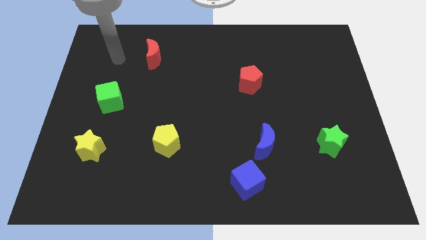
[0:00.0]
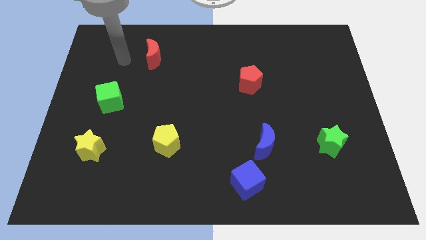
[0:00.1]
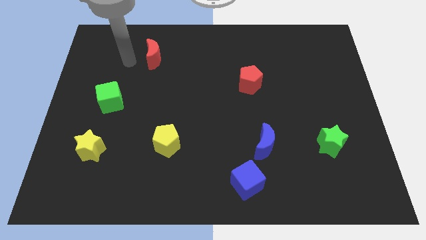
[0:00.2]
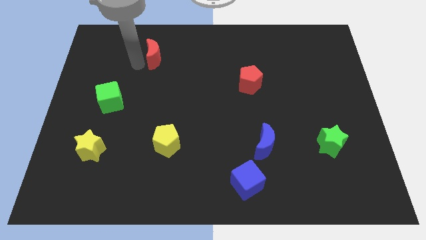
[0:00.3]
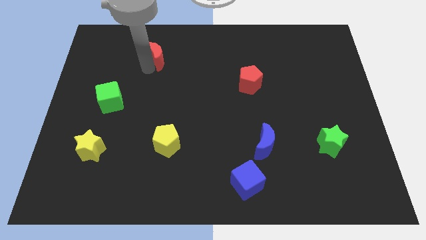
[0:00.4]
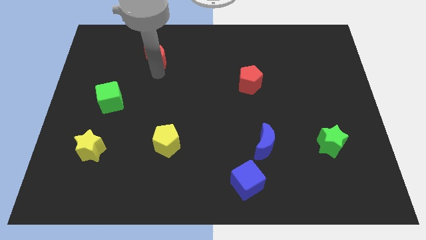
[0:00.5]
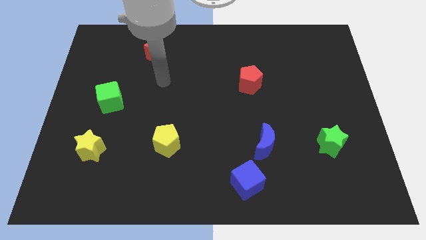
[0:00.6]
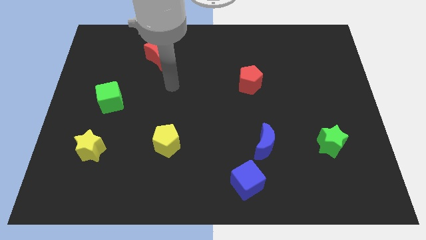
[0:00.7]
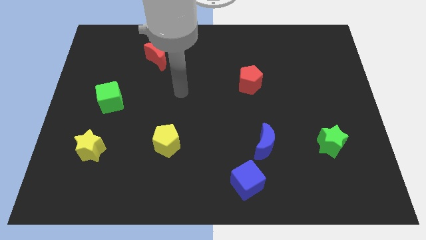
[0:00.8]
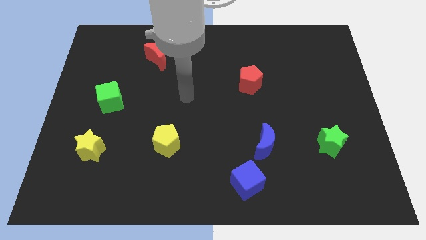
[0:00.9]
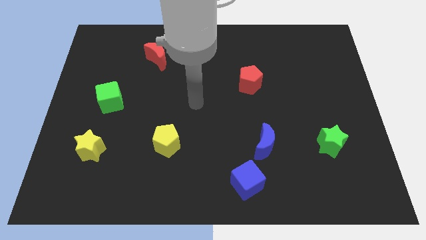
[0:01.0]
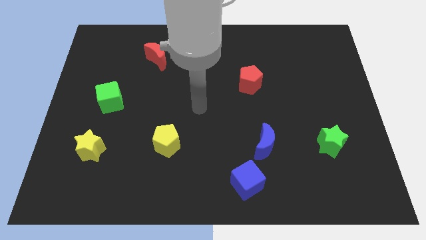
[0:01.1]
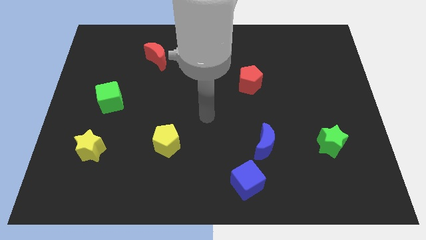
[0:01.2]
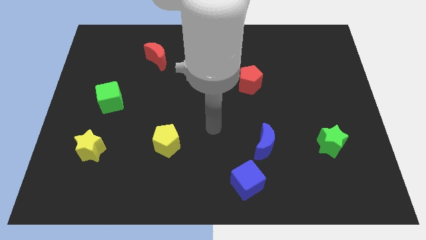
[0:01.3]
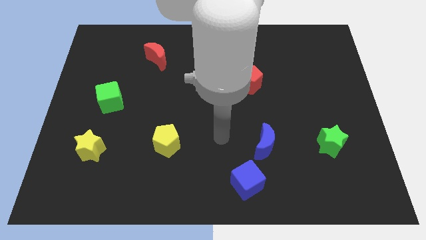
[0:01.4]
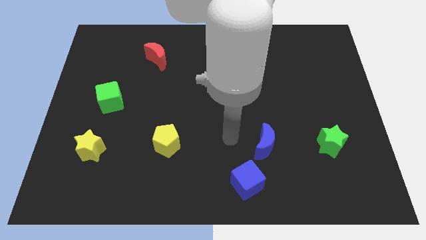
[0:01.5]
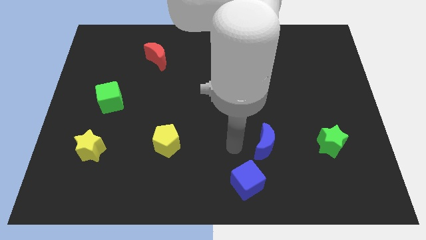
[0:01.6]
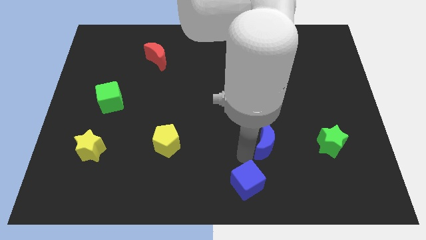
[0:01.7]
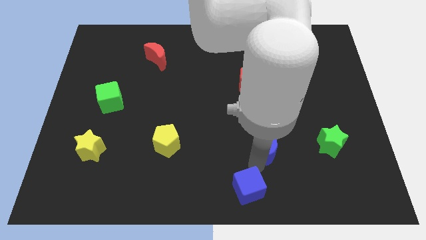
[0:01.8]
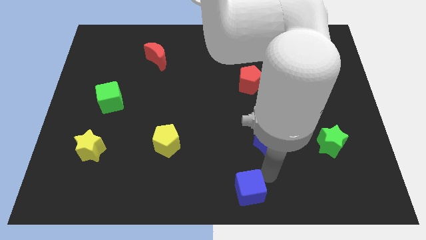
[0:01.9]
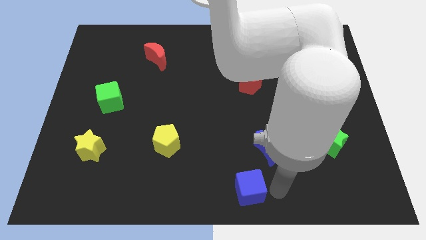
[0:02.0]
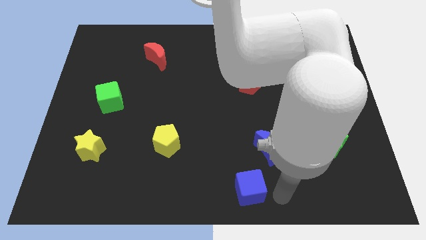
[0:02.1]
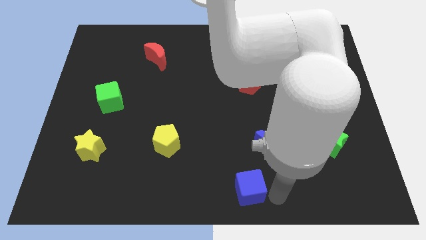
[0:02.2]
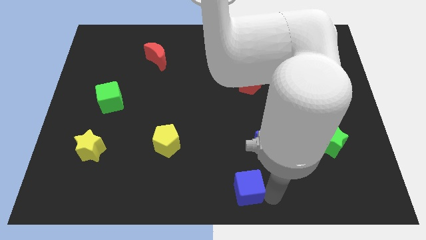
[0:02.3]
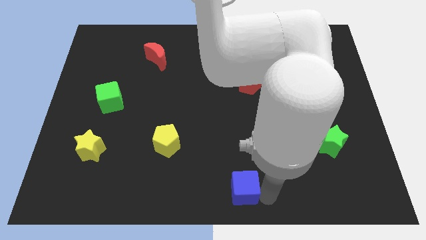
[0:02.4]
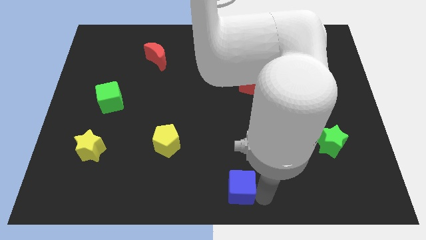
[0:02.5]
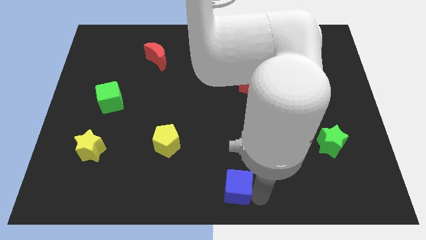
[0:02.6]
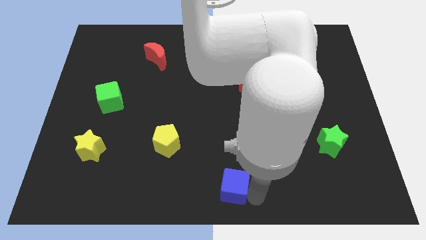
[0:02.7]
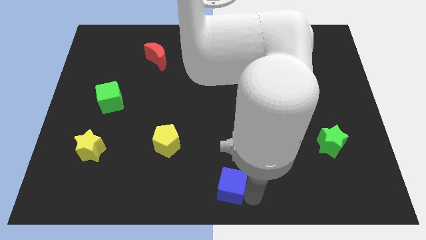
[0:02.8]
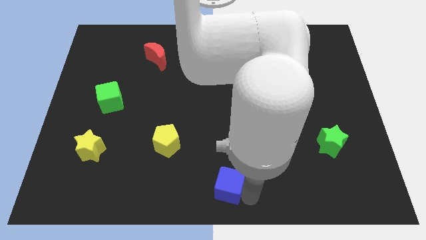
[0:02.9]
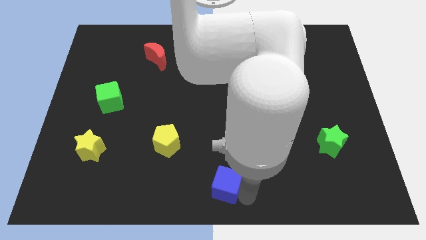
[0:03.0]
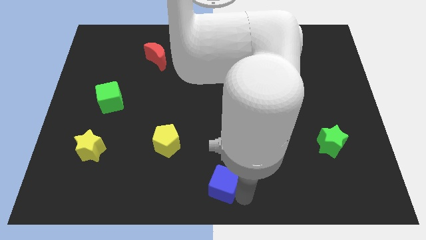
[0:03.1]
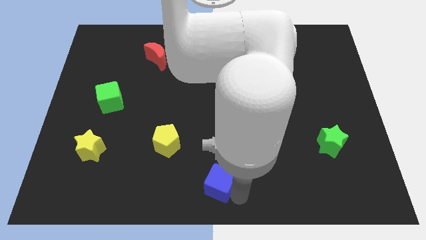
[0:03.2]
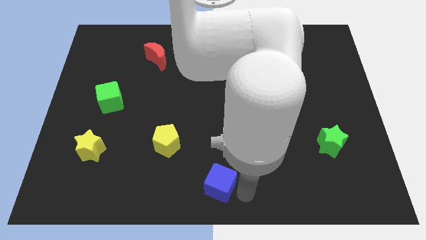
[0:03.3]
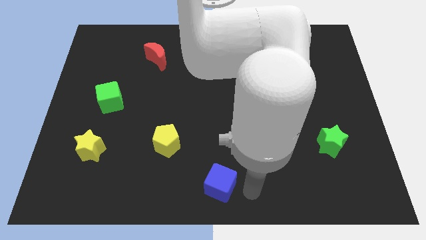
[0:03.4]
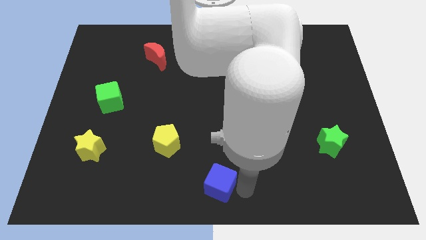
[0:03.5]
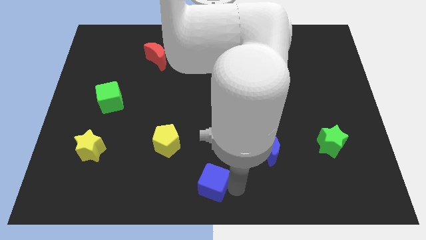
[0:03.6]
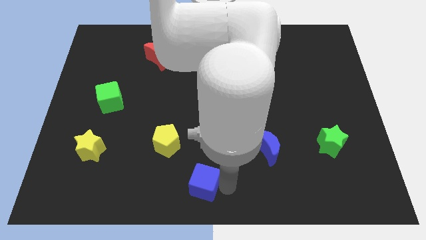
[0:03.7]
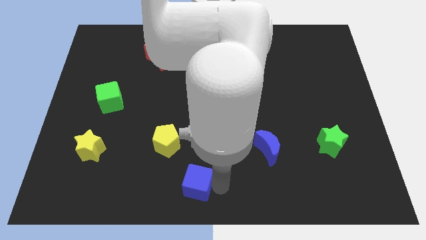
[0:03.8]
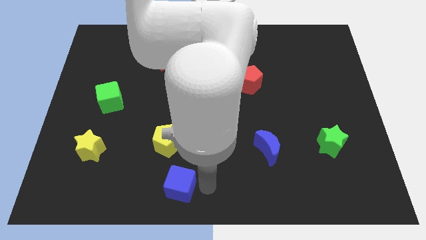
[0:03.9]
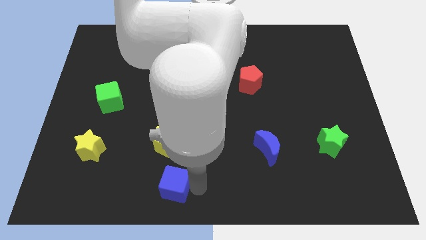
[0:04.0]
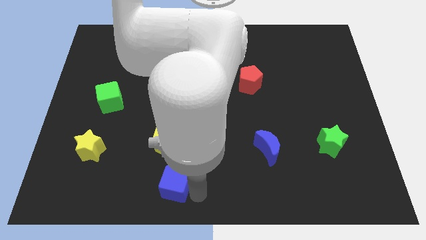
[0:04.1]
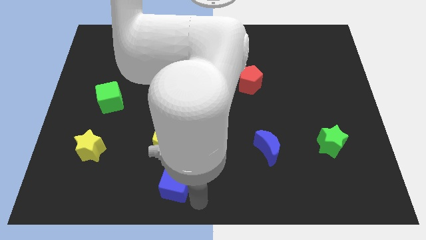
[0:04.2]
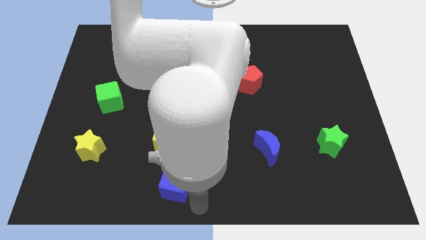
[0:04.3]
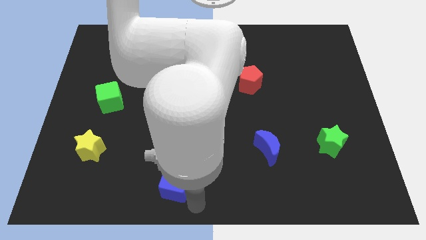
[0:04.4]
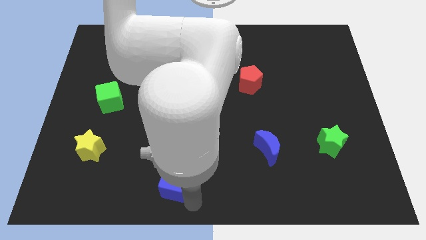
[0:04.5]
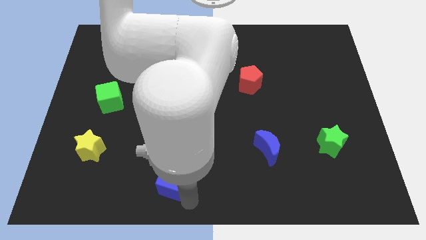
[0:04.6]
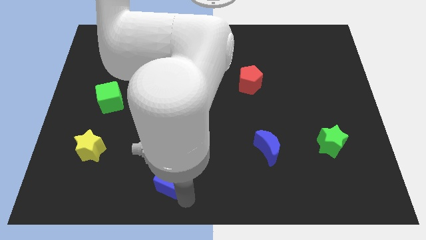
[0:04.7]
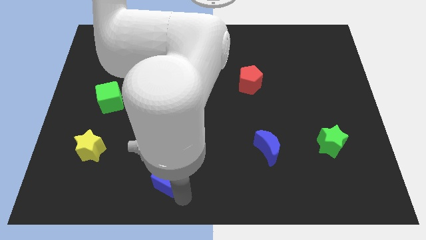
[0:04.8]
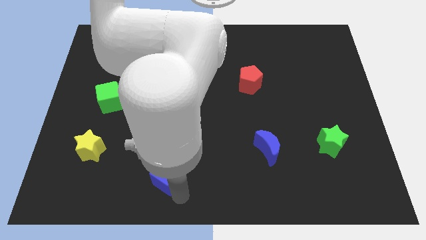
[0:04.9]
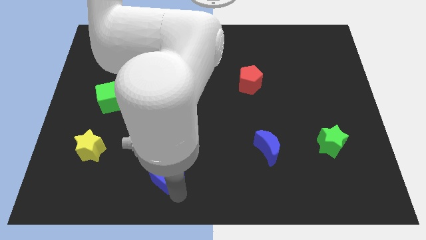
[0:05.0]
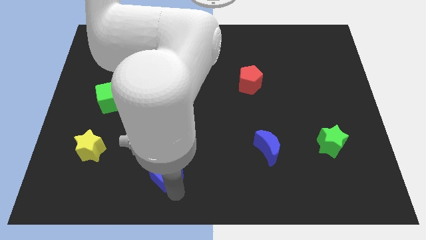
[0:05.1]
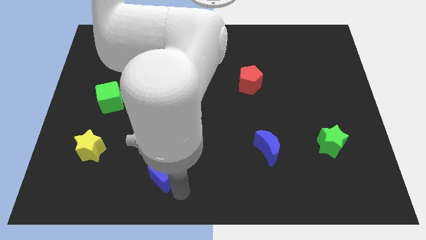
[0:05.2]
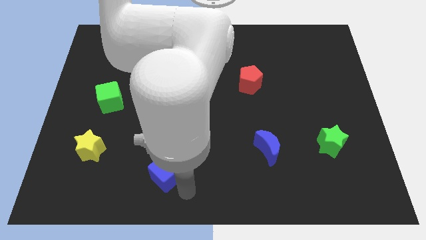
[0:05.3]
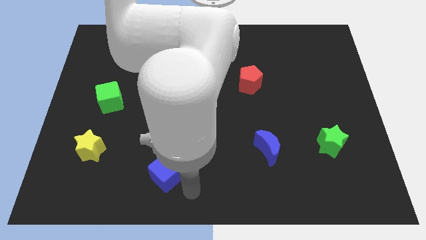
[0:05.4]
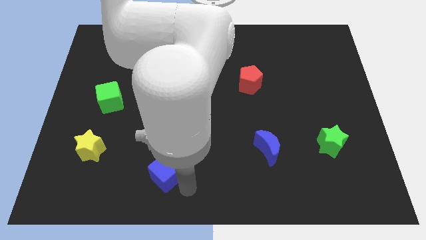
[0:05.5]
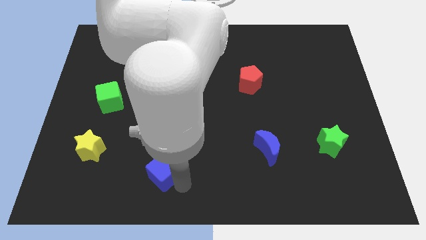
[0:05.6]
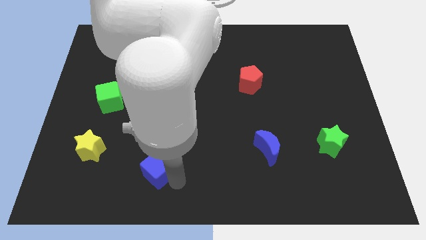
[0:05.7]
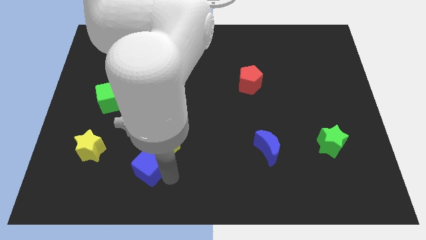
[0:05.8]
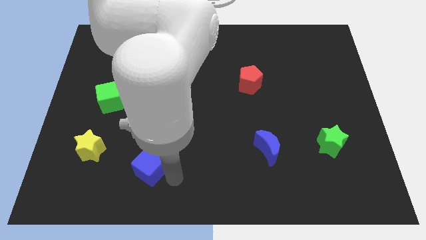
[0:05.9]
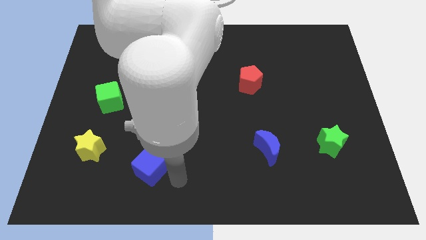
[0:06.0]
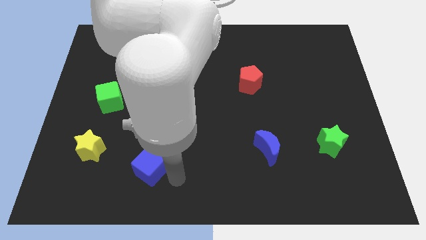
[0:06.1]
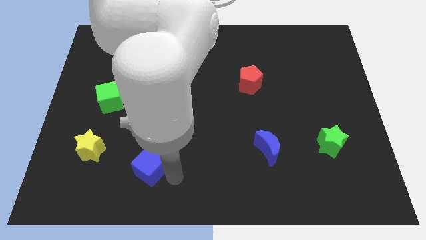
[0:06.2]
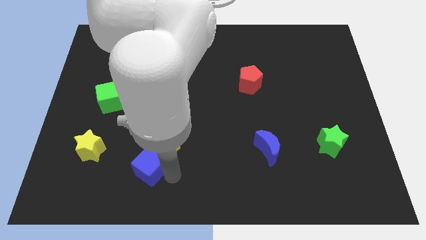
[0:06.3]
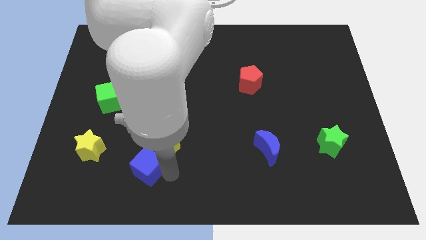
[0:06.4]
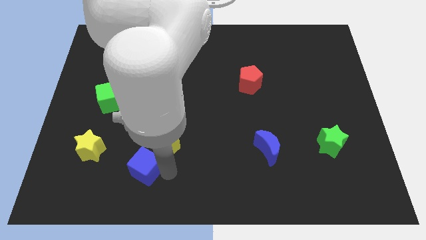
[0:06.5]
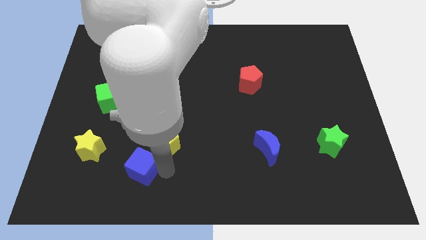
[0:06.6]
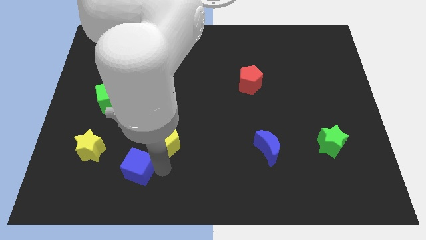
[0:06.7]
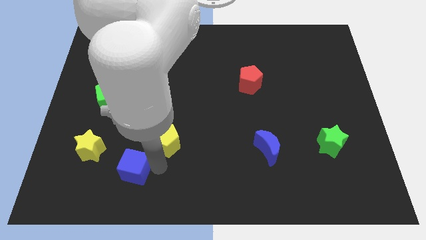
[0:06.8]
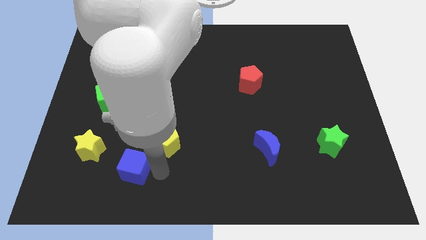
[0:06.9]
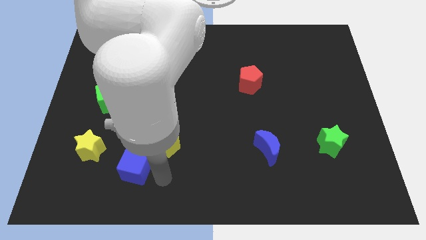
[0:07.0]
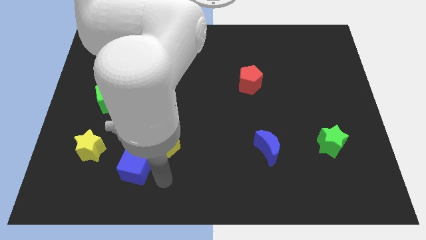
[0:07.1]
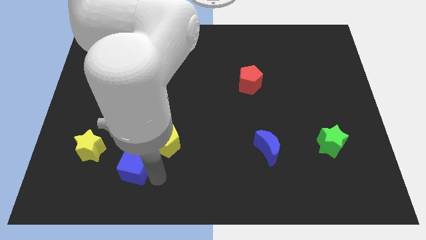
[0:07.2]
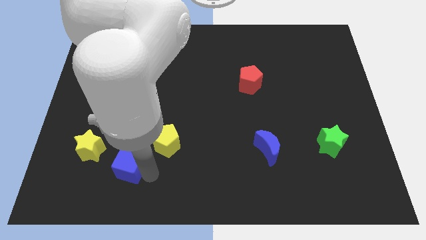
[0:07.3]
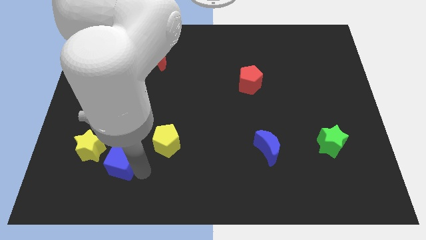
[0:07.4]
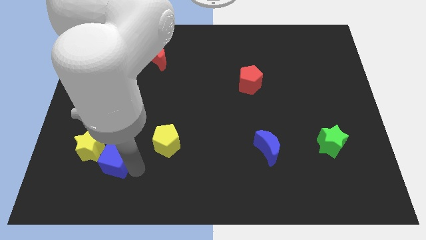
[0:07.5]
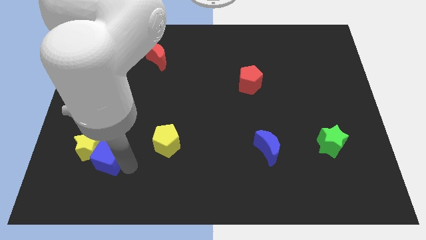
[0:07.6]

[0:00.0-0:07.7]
push the blue cube towards the yellow star
